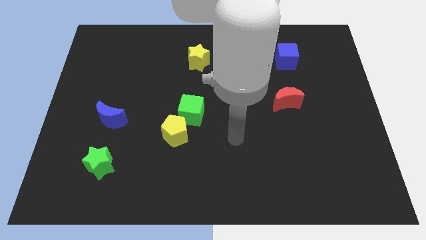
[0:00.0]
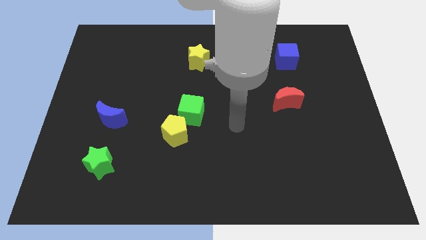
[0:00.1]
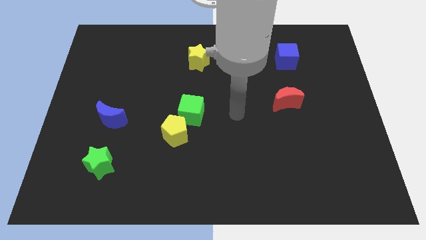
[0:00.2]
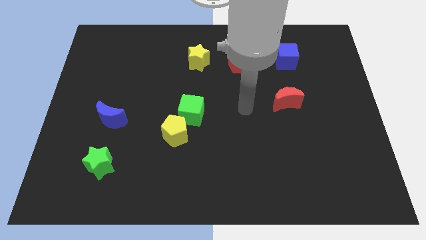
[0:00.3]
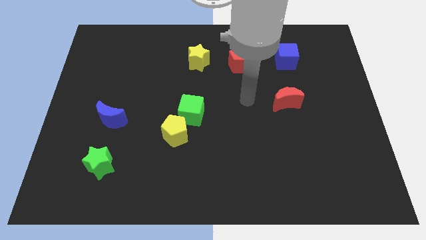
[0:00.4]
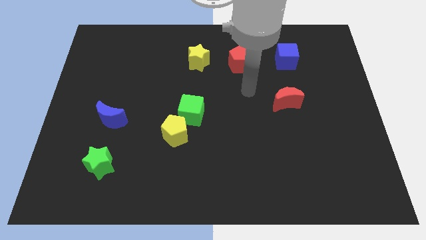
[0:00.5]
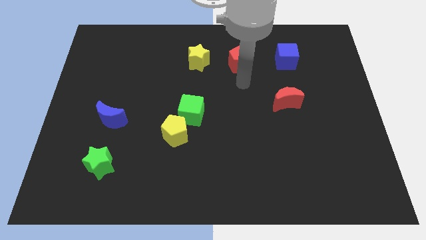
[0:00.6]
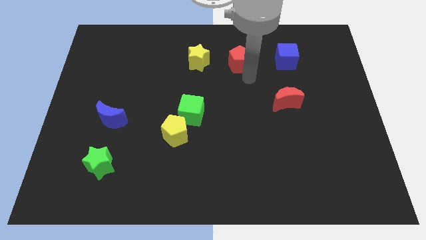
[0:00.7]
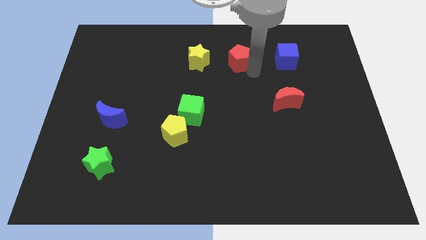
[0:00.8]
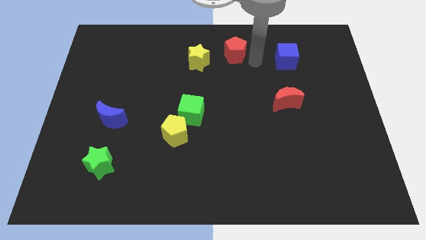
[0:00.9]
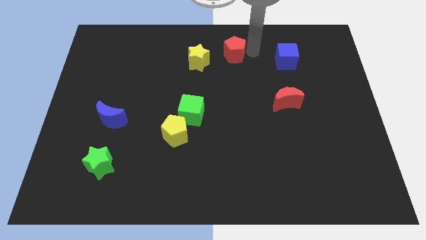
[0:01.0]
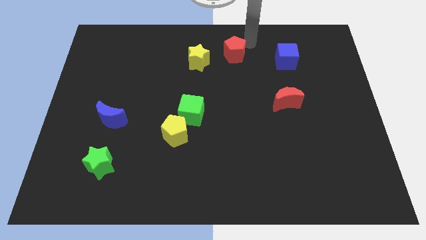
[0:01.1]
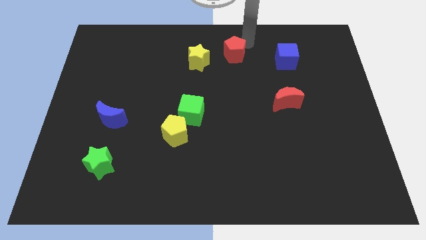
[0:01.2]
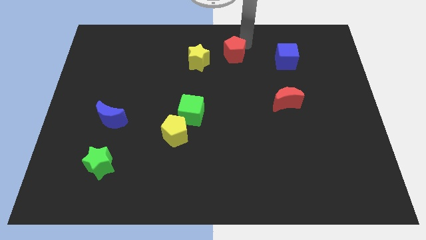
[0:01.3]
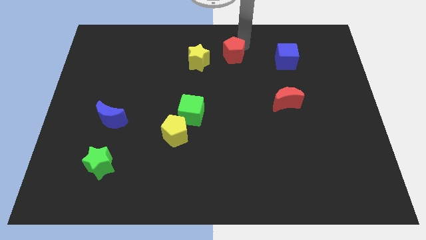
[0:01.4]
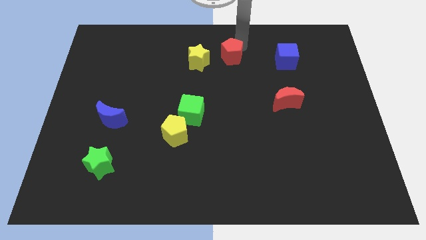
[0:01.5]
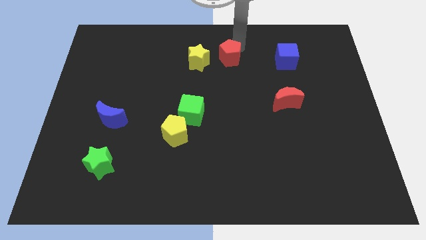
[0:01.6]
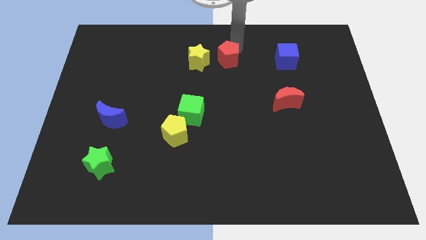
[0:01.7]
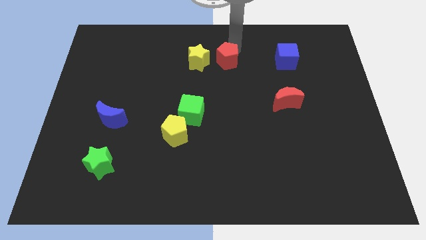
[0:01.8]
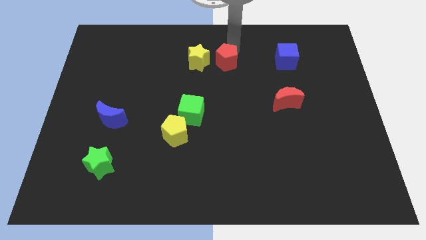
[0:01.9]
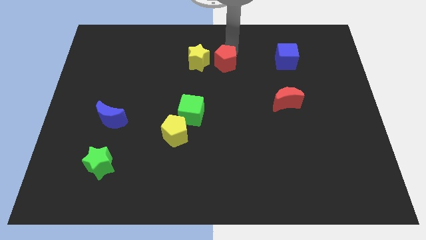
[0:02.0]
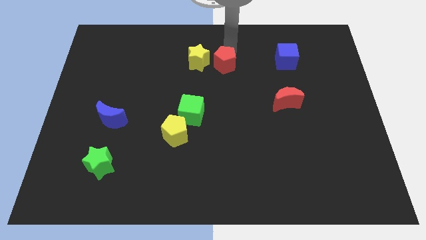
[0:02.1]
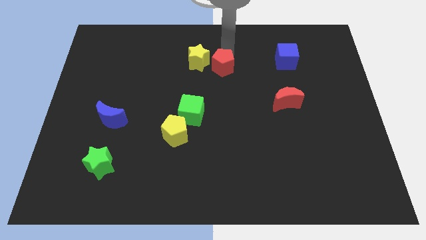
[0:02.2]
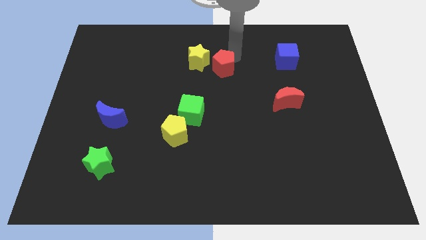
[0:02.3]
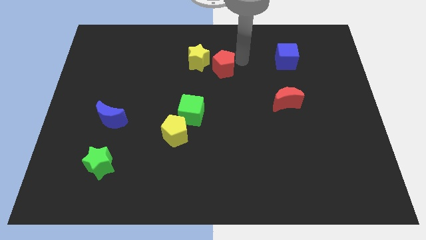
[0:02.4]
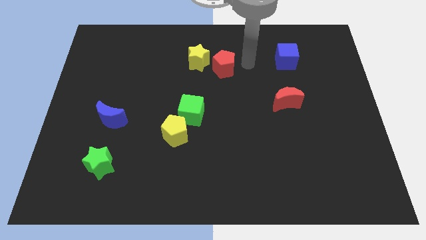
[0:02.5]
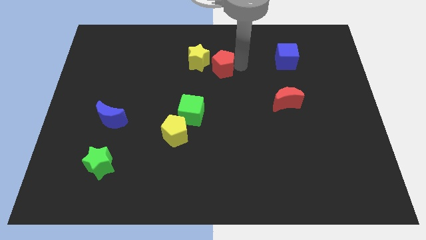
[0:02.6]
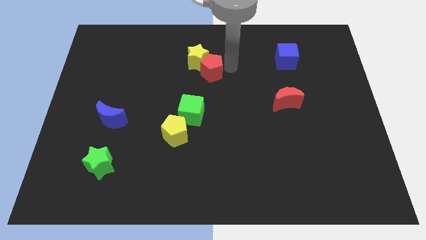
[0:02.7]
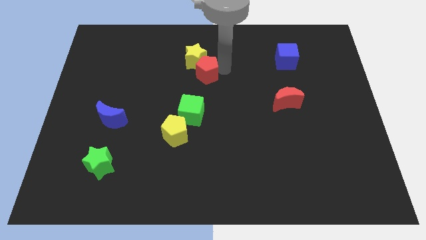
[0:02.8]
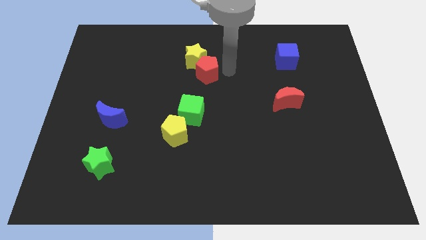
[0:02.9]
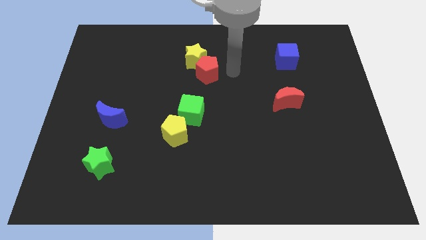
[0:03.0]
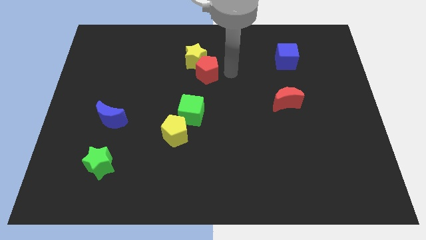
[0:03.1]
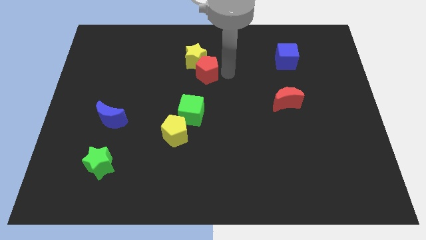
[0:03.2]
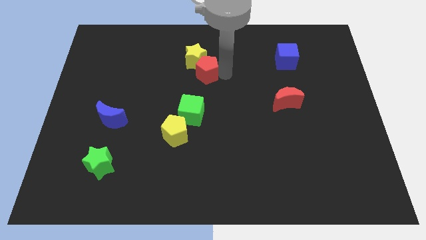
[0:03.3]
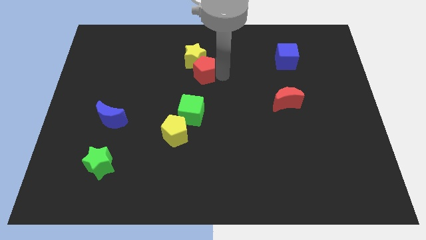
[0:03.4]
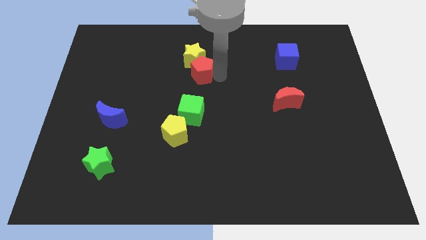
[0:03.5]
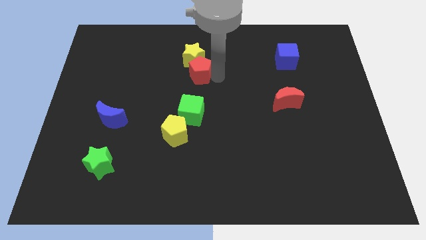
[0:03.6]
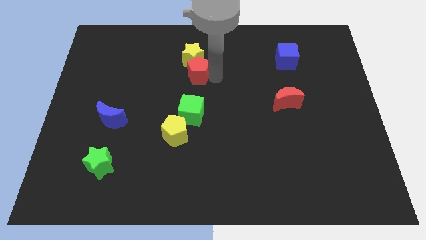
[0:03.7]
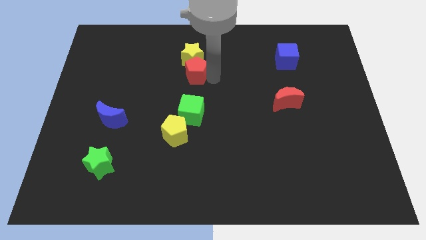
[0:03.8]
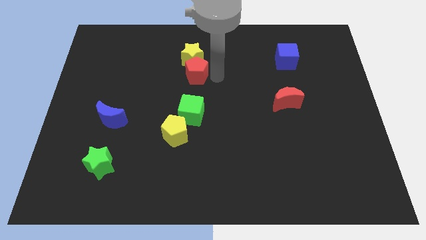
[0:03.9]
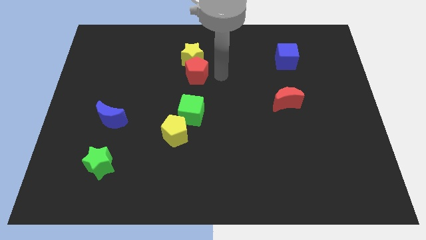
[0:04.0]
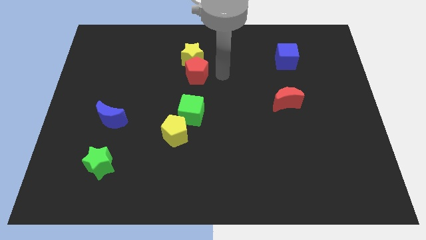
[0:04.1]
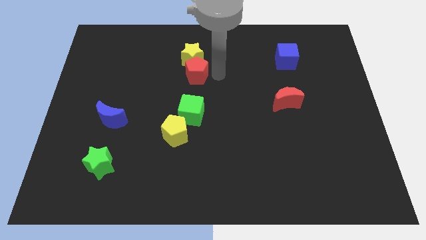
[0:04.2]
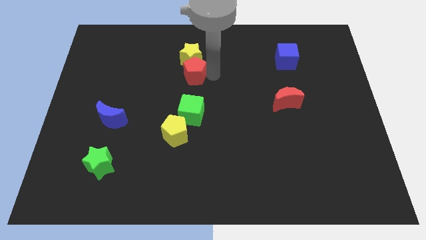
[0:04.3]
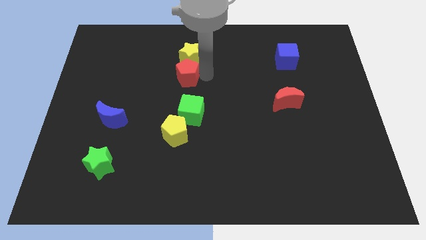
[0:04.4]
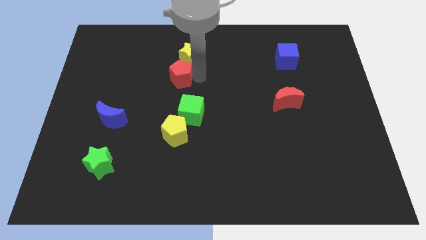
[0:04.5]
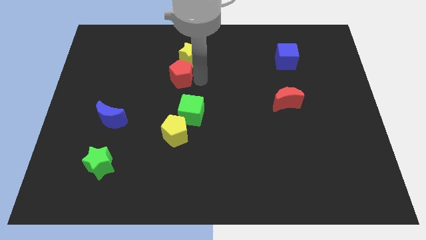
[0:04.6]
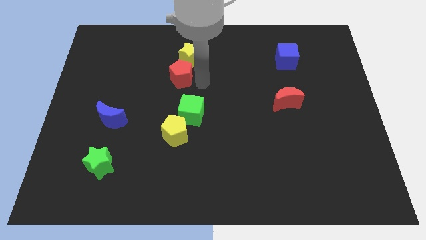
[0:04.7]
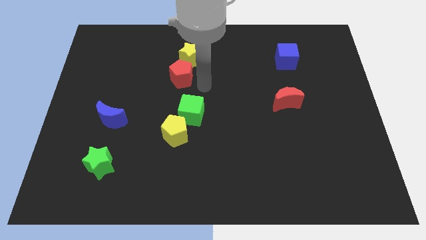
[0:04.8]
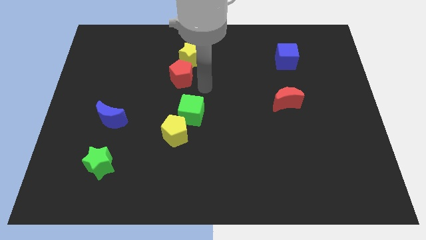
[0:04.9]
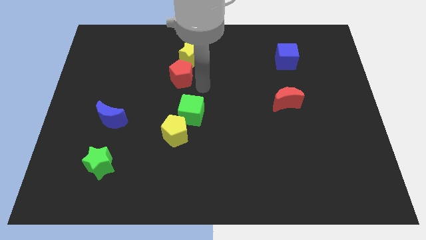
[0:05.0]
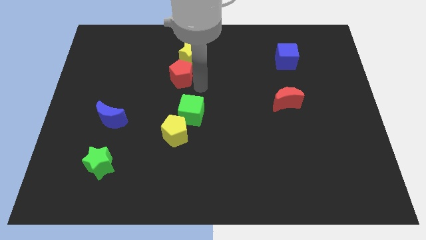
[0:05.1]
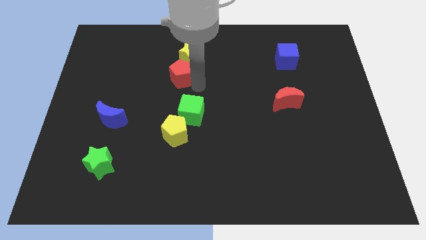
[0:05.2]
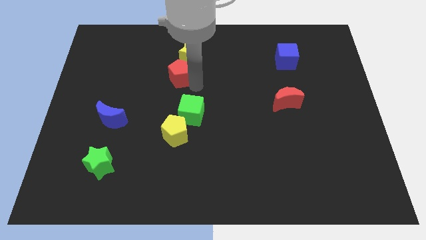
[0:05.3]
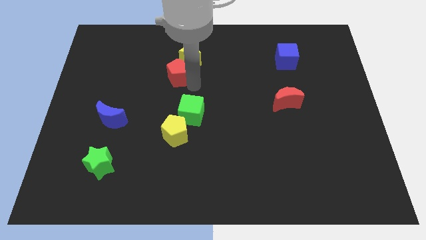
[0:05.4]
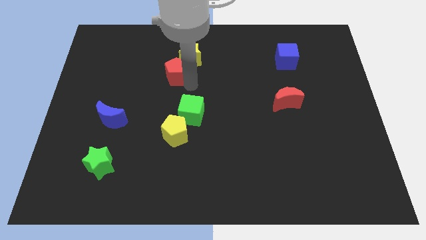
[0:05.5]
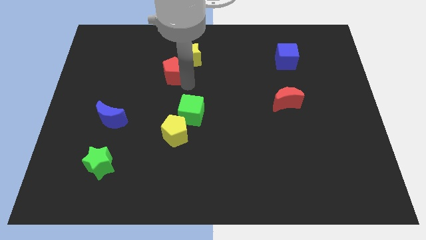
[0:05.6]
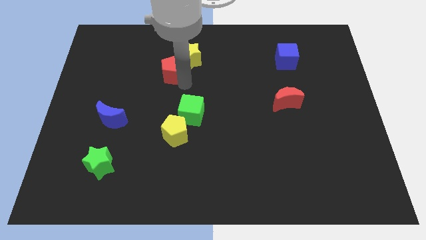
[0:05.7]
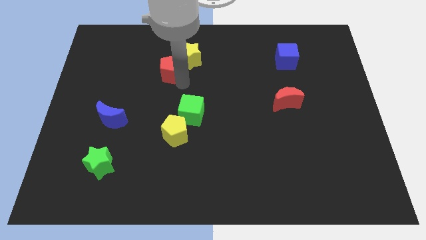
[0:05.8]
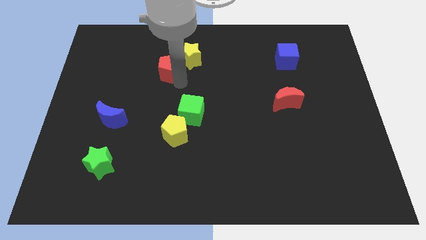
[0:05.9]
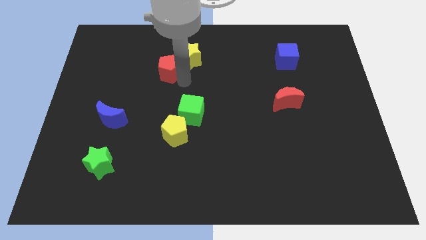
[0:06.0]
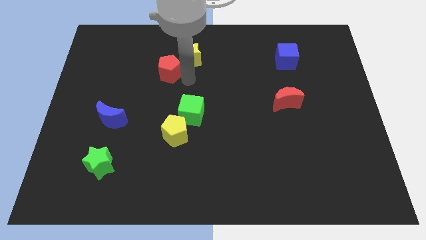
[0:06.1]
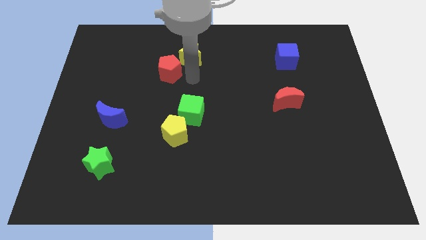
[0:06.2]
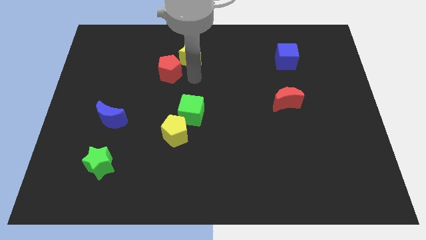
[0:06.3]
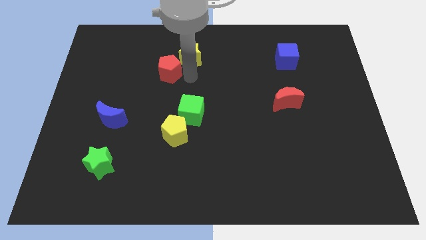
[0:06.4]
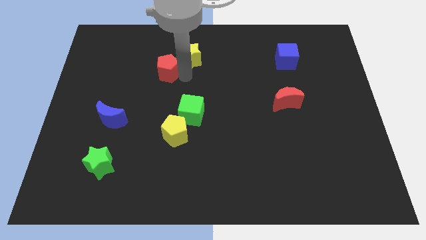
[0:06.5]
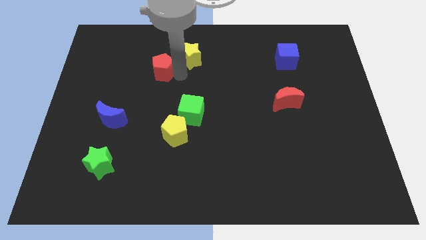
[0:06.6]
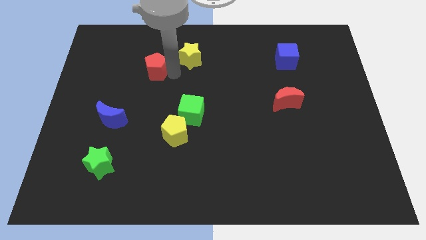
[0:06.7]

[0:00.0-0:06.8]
move the red pentagon left

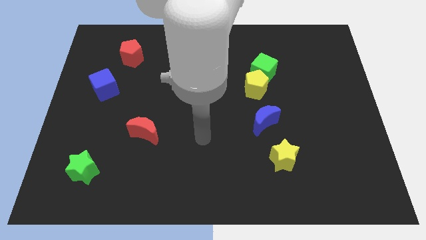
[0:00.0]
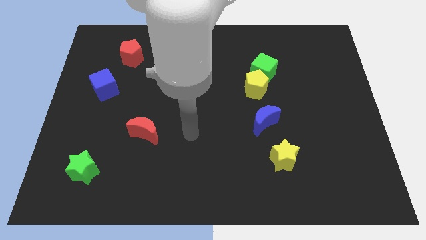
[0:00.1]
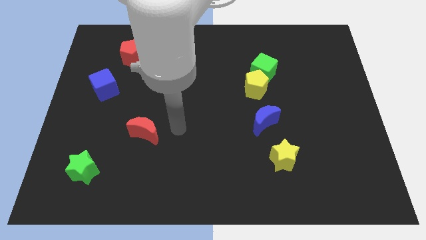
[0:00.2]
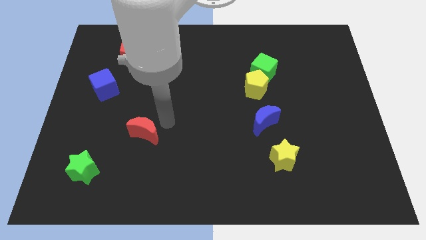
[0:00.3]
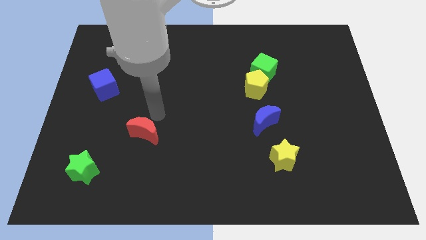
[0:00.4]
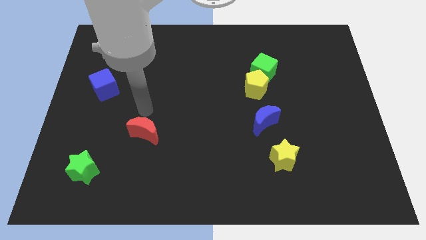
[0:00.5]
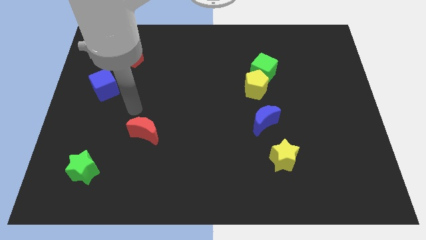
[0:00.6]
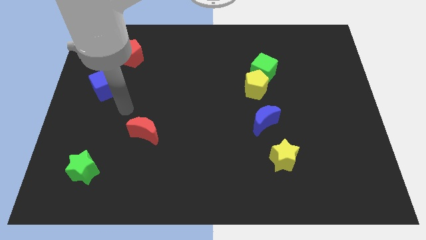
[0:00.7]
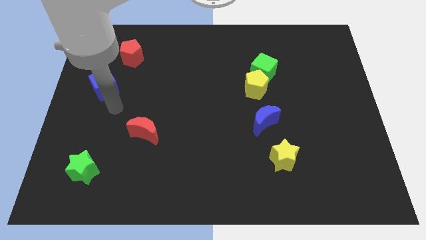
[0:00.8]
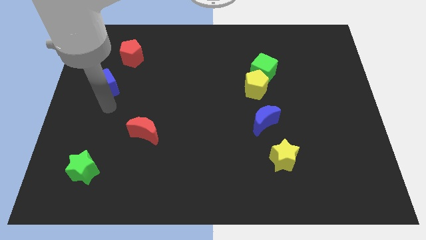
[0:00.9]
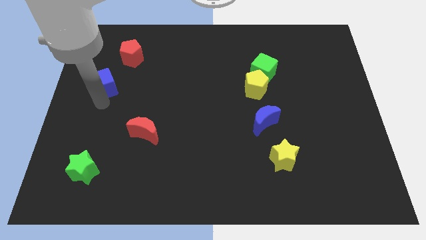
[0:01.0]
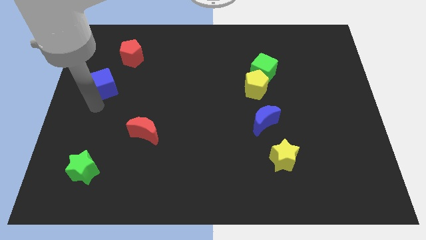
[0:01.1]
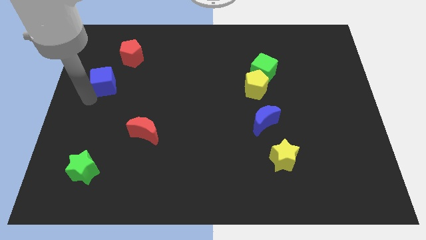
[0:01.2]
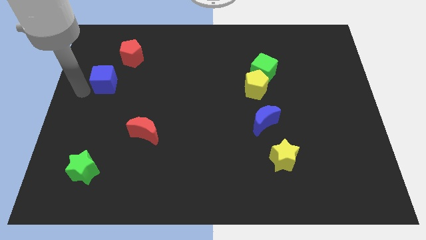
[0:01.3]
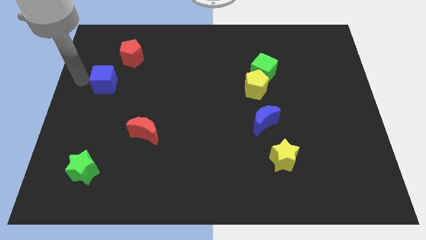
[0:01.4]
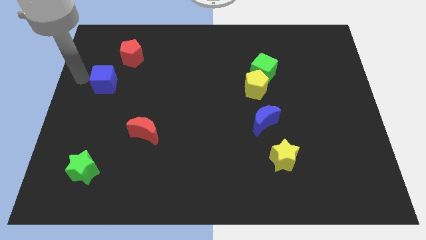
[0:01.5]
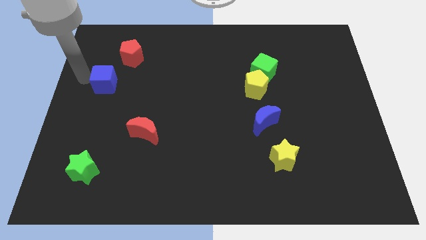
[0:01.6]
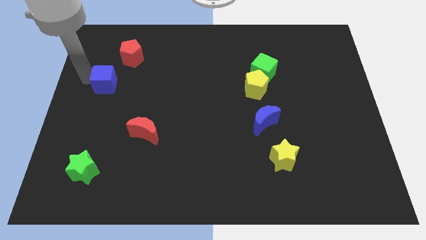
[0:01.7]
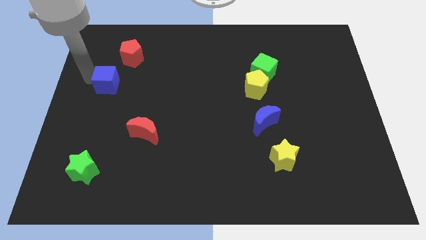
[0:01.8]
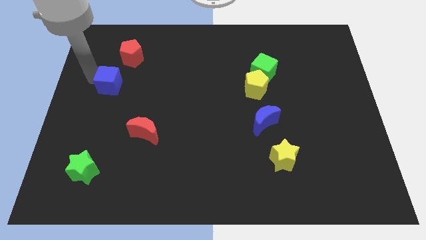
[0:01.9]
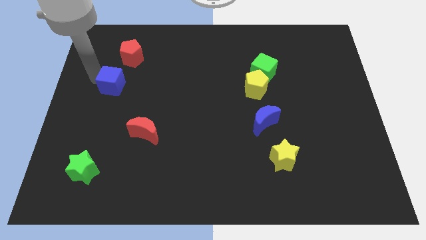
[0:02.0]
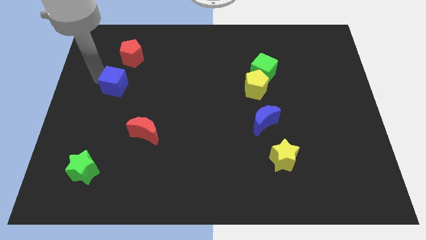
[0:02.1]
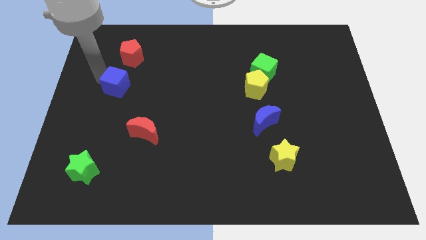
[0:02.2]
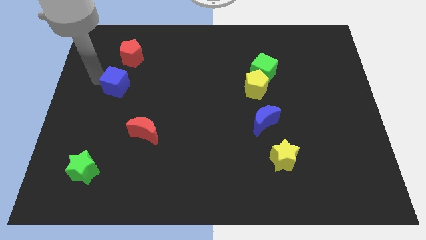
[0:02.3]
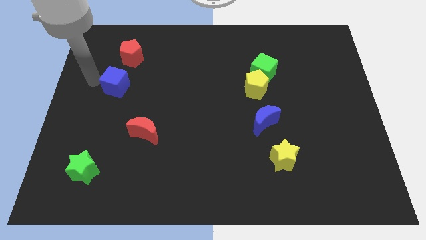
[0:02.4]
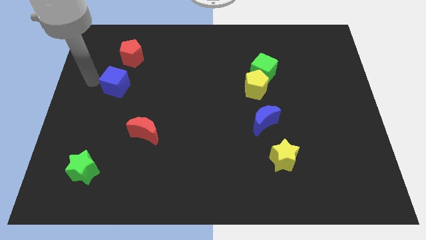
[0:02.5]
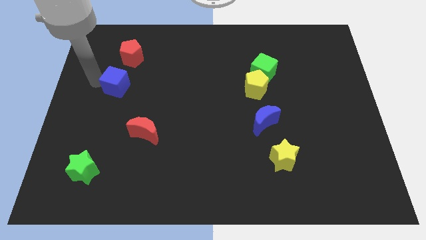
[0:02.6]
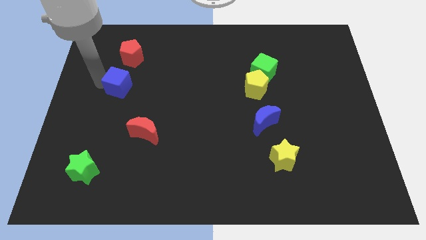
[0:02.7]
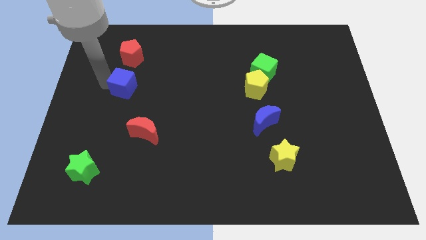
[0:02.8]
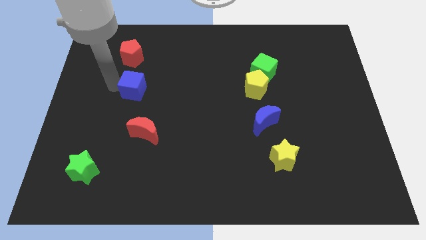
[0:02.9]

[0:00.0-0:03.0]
slightly move the blue cube right
